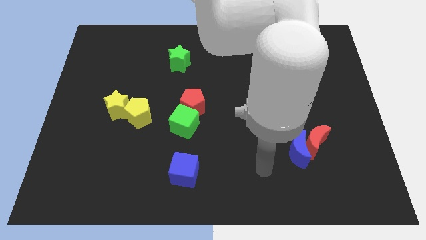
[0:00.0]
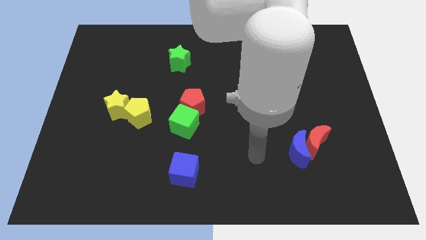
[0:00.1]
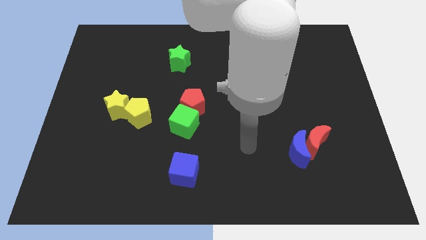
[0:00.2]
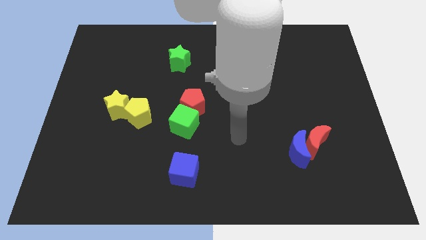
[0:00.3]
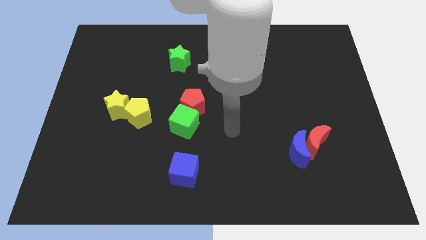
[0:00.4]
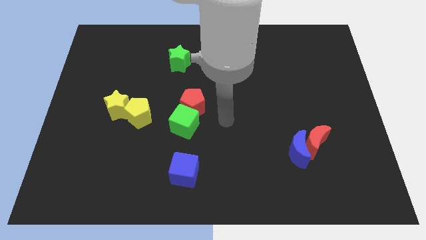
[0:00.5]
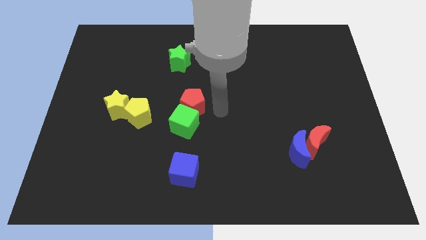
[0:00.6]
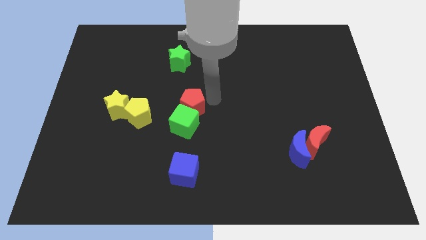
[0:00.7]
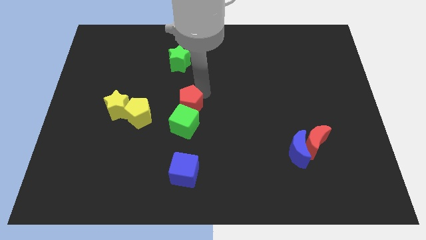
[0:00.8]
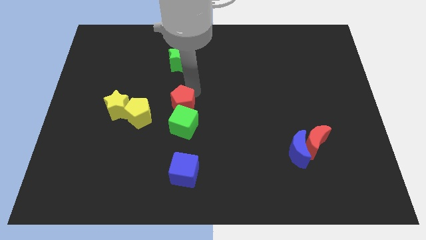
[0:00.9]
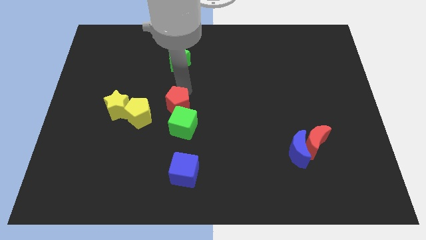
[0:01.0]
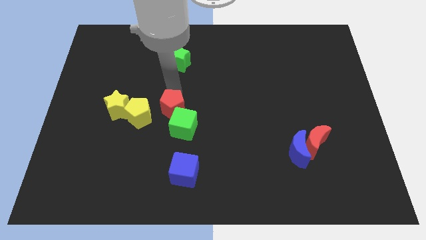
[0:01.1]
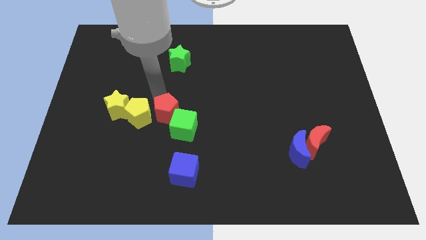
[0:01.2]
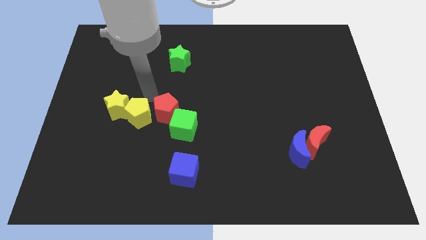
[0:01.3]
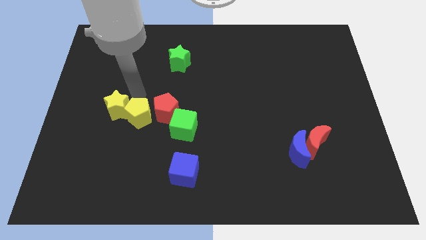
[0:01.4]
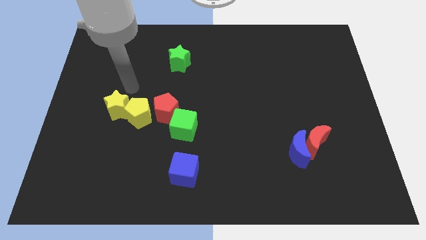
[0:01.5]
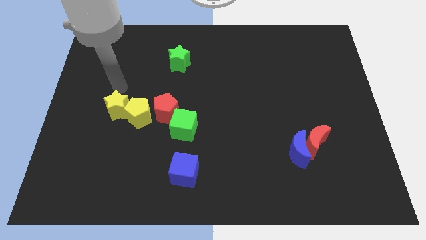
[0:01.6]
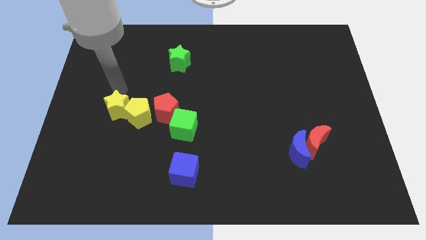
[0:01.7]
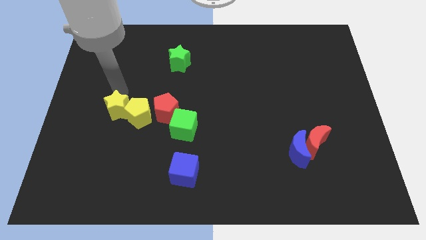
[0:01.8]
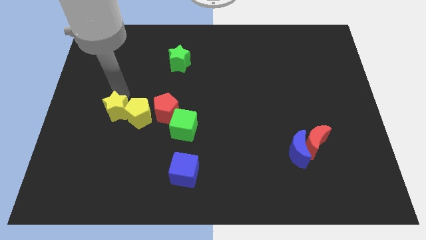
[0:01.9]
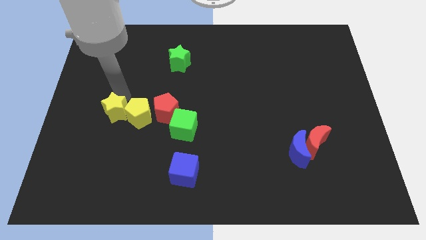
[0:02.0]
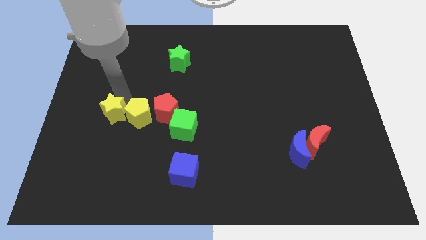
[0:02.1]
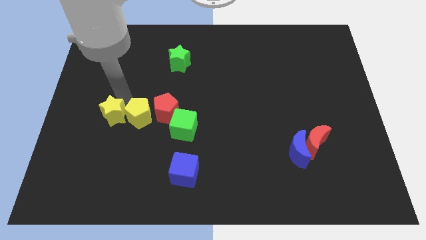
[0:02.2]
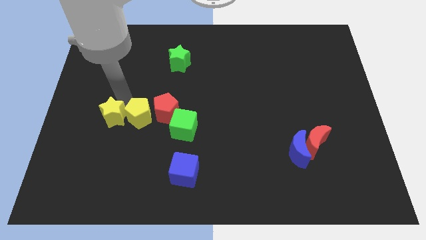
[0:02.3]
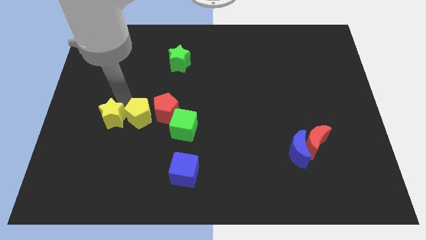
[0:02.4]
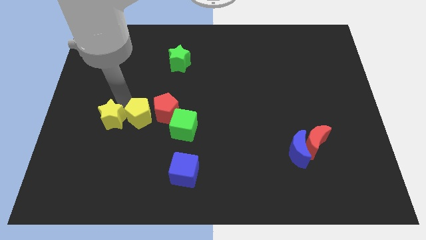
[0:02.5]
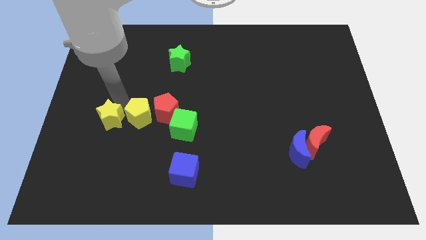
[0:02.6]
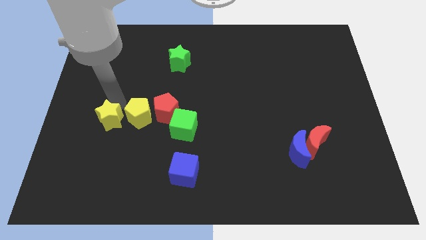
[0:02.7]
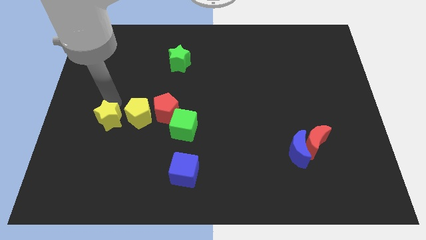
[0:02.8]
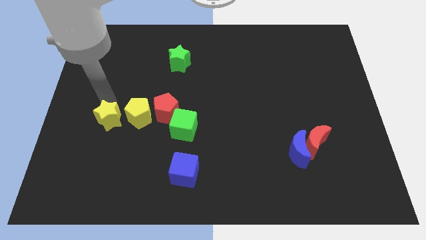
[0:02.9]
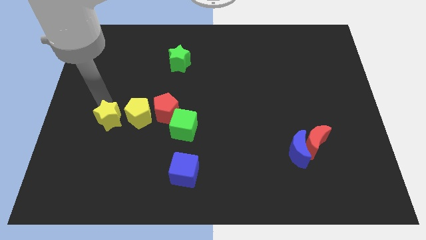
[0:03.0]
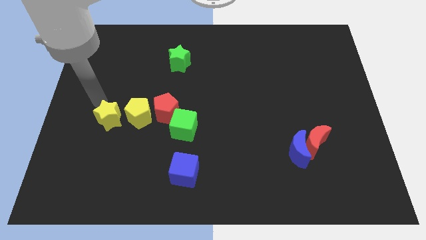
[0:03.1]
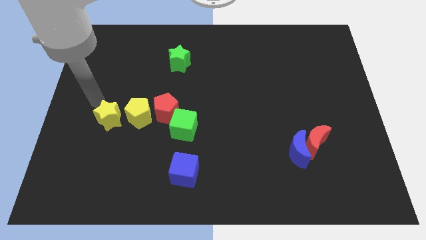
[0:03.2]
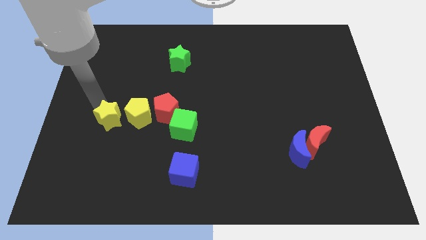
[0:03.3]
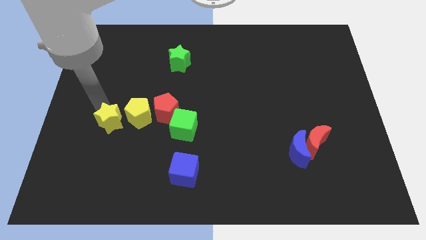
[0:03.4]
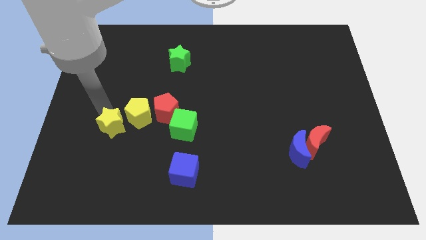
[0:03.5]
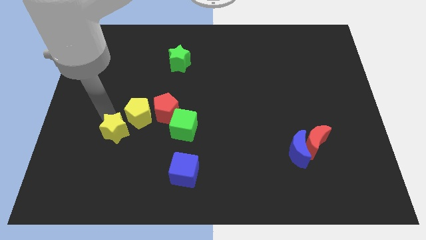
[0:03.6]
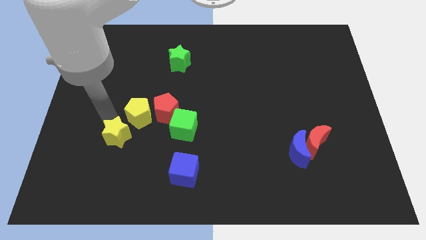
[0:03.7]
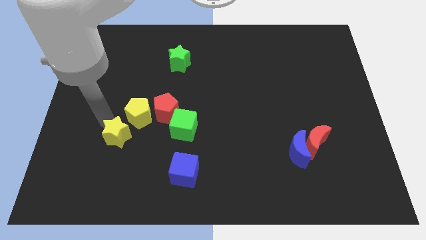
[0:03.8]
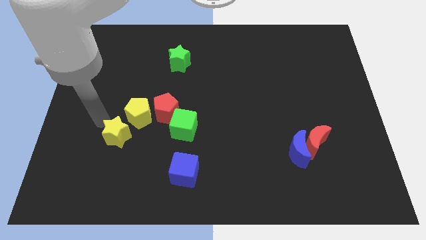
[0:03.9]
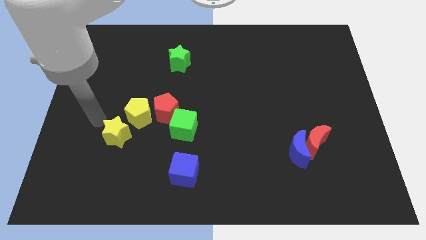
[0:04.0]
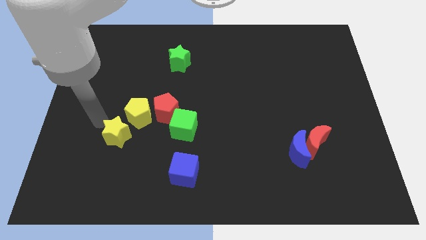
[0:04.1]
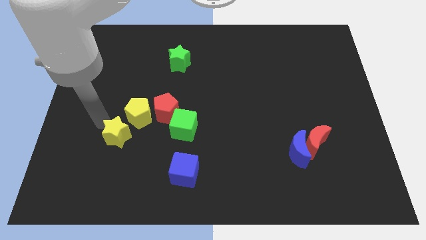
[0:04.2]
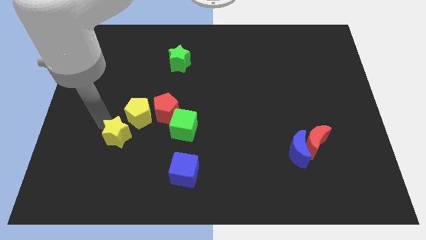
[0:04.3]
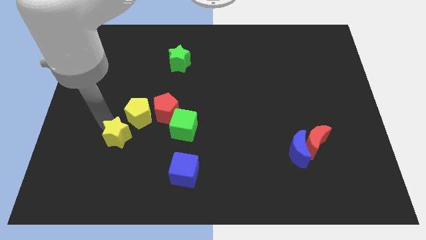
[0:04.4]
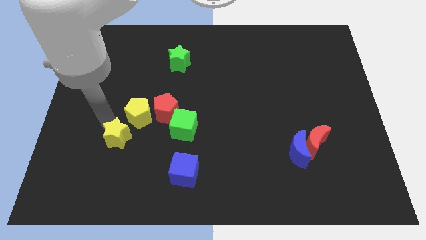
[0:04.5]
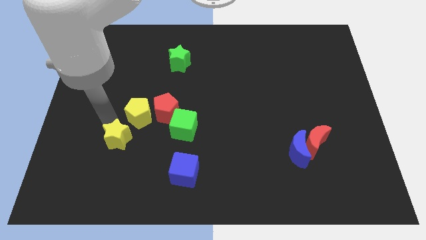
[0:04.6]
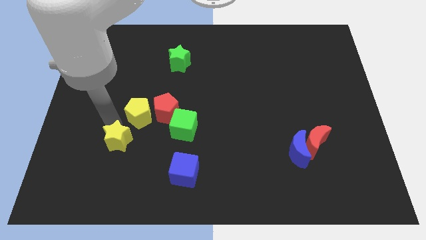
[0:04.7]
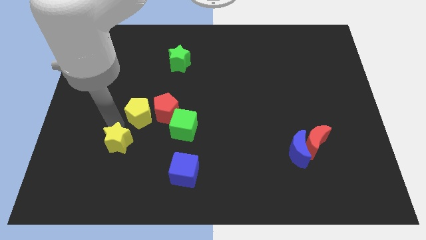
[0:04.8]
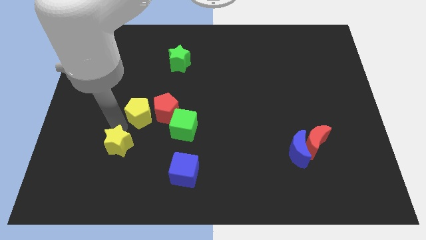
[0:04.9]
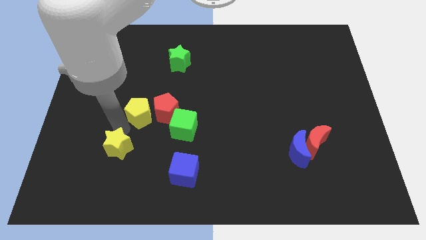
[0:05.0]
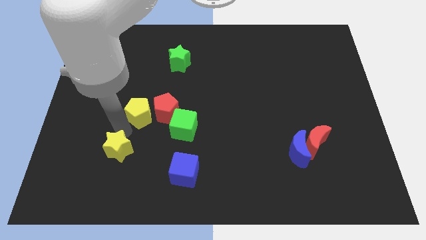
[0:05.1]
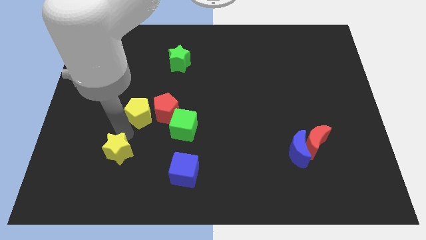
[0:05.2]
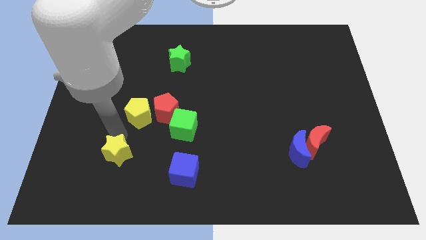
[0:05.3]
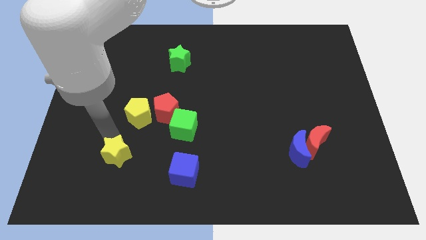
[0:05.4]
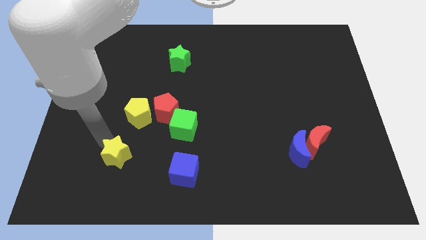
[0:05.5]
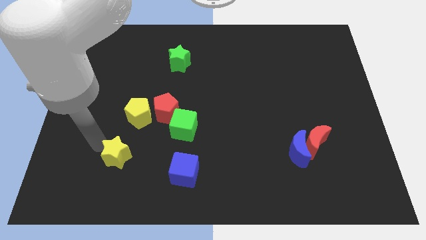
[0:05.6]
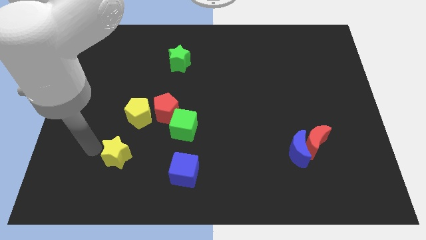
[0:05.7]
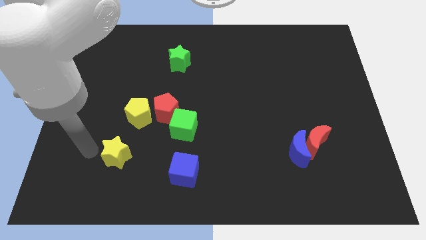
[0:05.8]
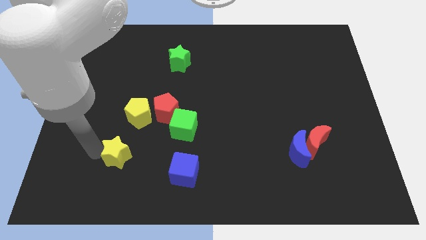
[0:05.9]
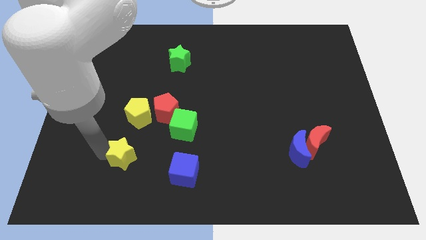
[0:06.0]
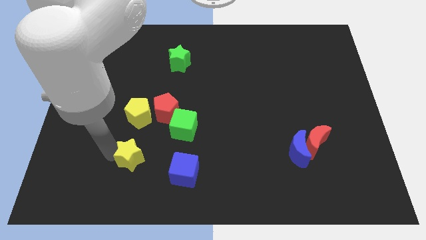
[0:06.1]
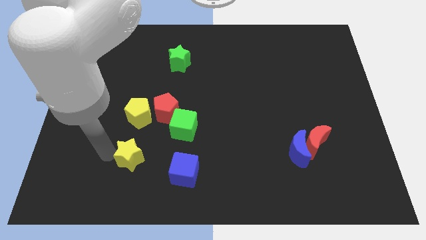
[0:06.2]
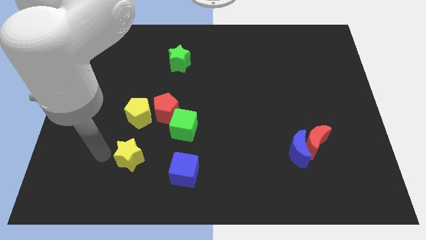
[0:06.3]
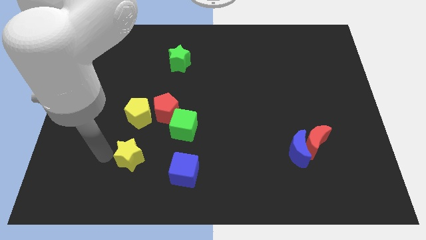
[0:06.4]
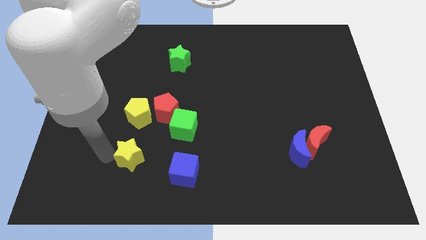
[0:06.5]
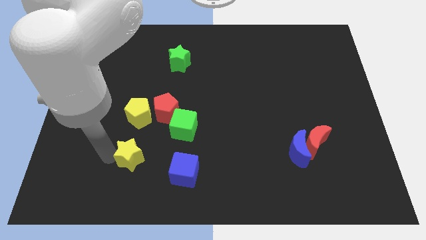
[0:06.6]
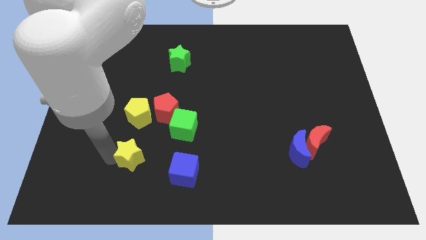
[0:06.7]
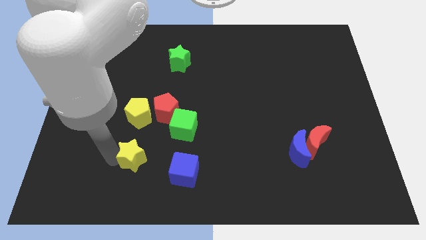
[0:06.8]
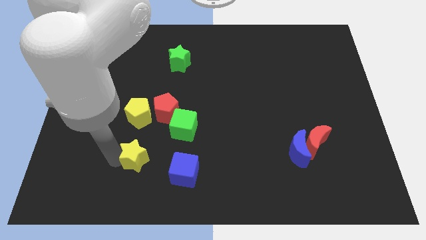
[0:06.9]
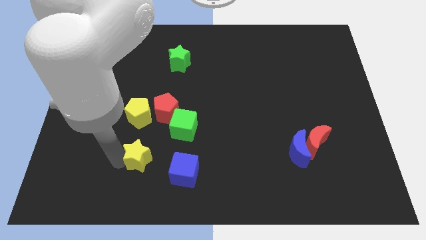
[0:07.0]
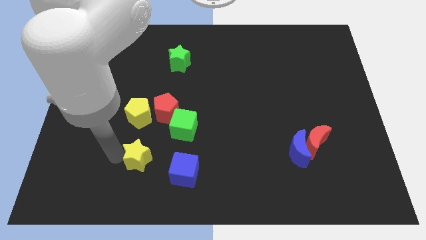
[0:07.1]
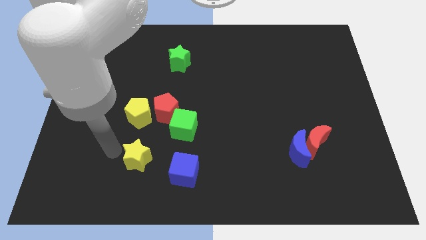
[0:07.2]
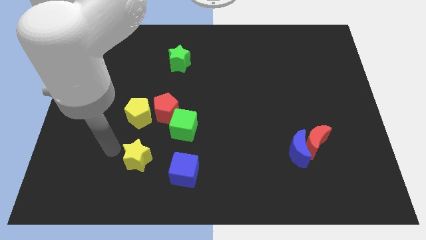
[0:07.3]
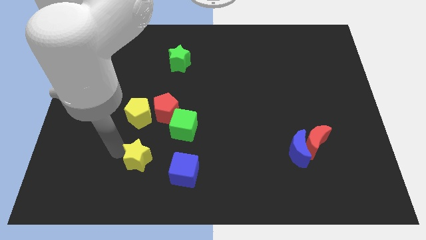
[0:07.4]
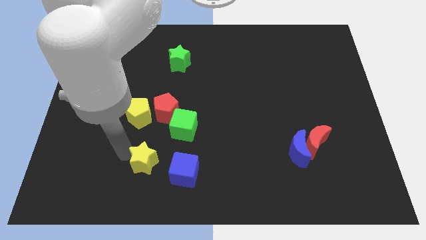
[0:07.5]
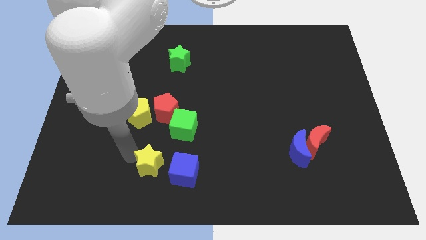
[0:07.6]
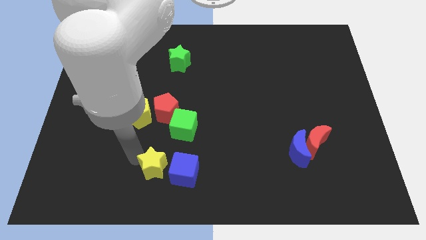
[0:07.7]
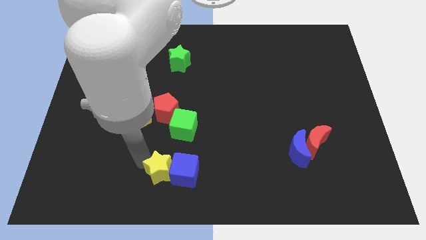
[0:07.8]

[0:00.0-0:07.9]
push the yellow star next to the blue cube
